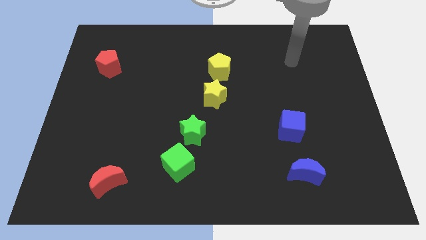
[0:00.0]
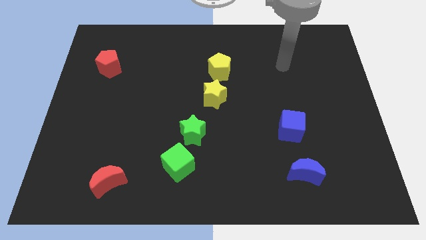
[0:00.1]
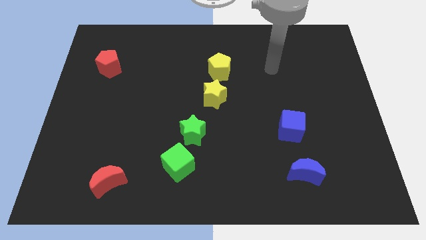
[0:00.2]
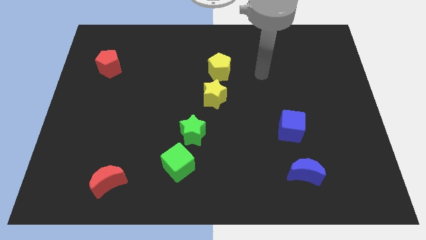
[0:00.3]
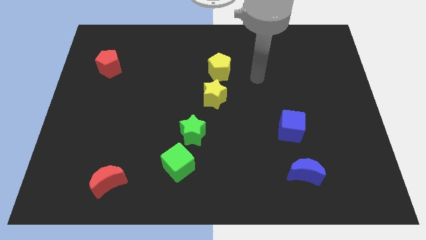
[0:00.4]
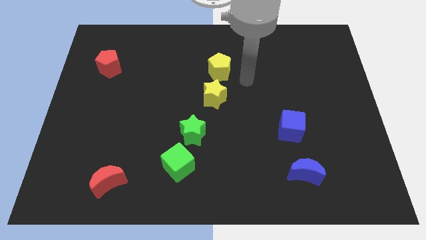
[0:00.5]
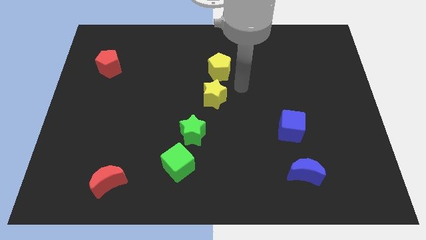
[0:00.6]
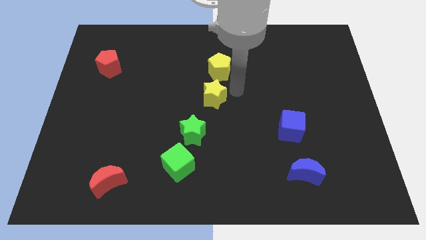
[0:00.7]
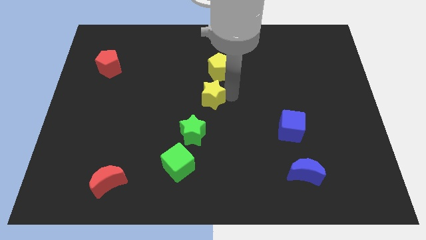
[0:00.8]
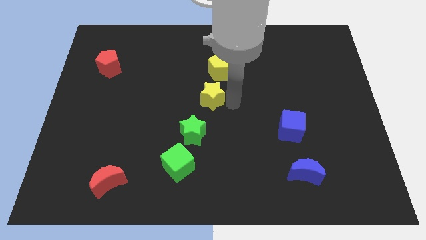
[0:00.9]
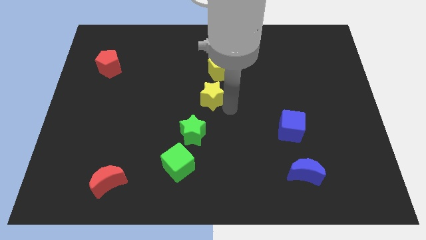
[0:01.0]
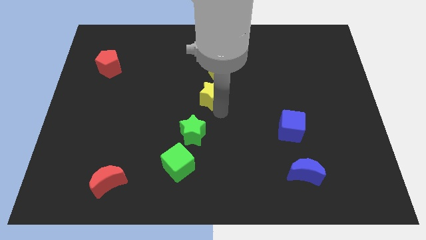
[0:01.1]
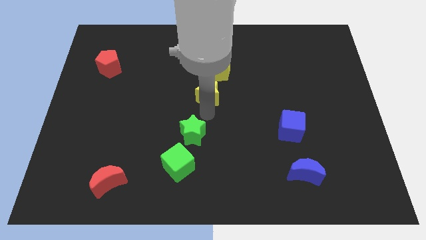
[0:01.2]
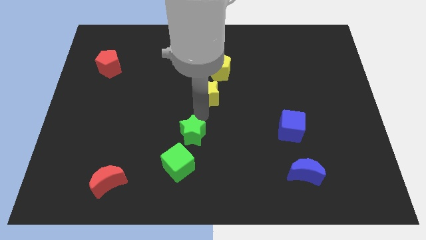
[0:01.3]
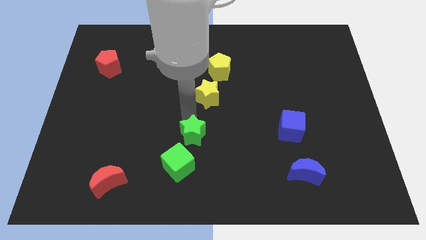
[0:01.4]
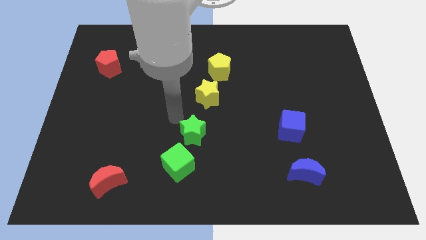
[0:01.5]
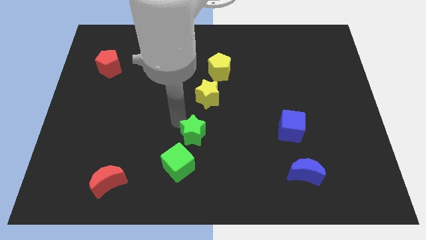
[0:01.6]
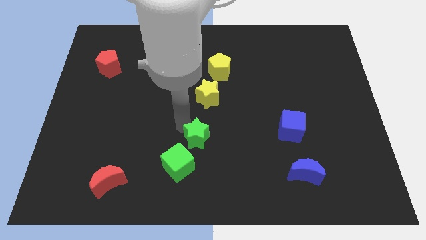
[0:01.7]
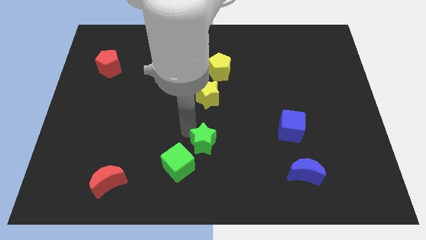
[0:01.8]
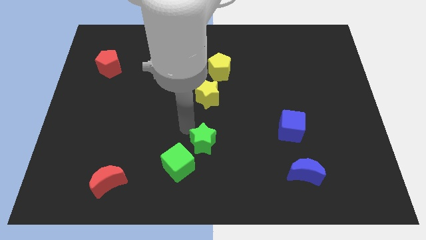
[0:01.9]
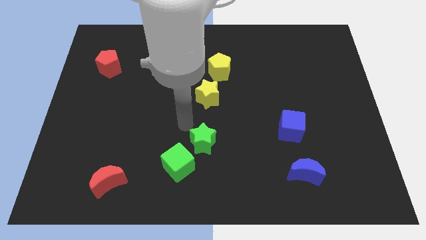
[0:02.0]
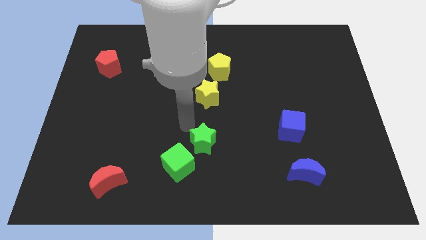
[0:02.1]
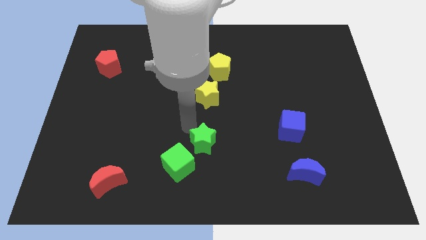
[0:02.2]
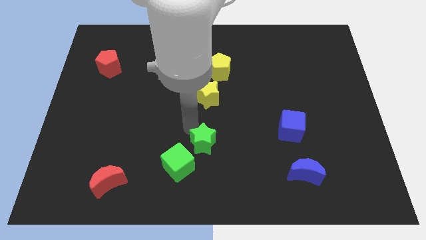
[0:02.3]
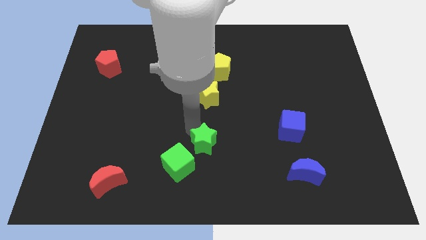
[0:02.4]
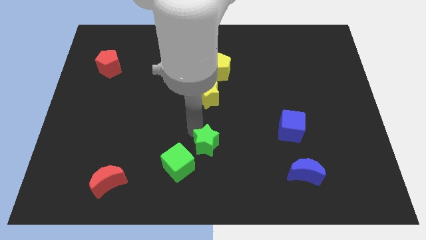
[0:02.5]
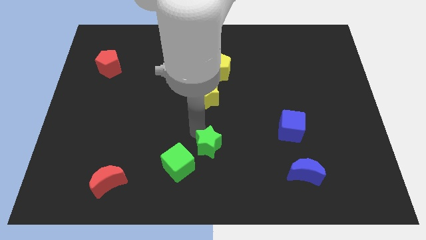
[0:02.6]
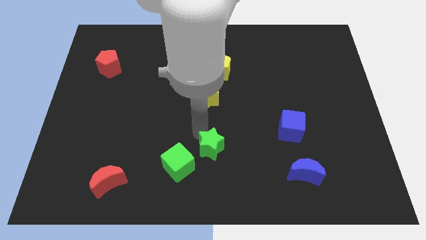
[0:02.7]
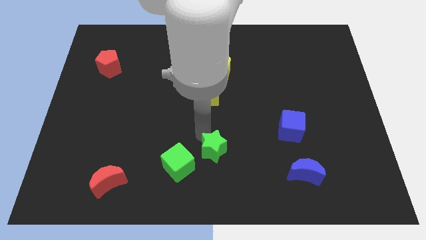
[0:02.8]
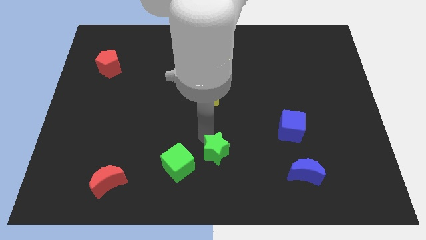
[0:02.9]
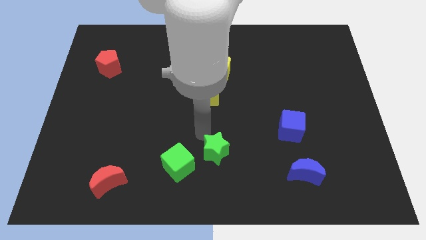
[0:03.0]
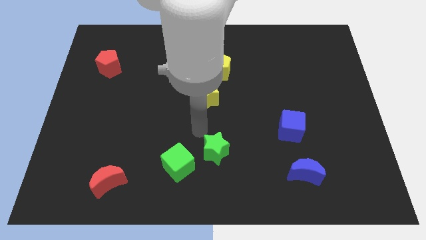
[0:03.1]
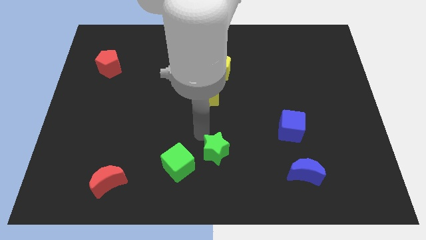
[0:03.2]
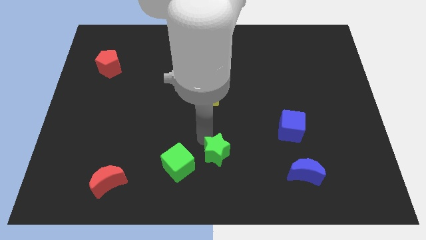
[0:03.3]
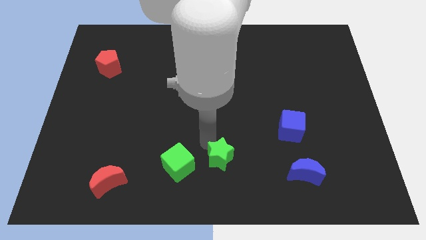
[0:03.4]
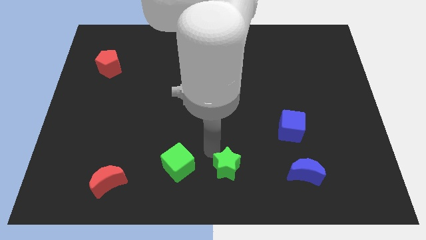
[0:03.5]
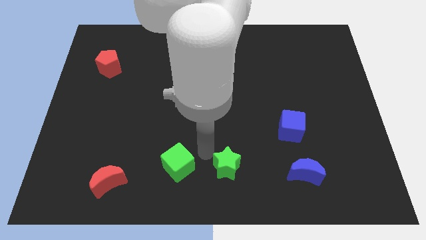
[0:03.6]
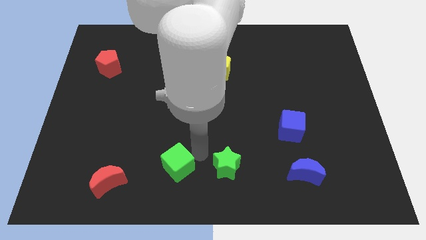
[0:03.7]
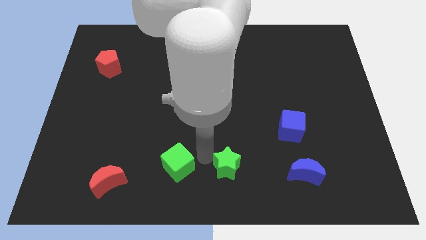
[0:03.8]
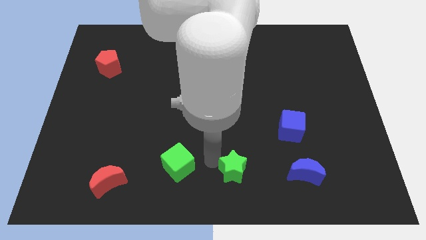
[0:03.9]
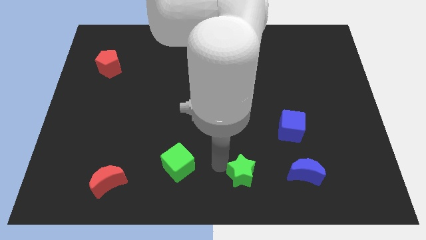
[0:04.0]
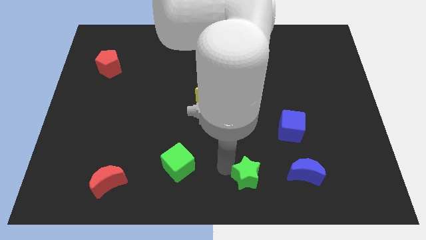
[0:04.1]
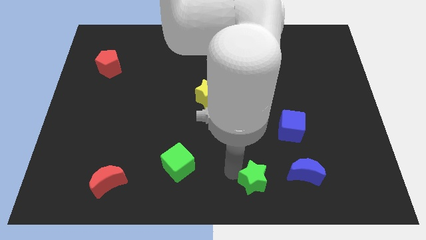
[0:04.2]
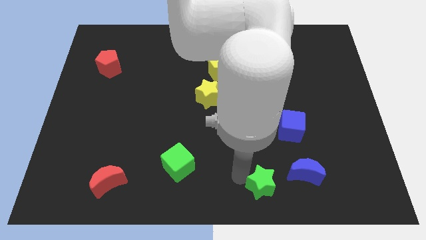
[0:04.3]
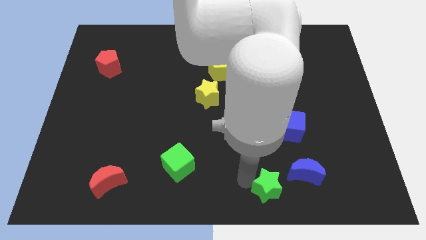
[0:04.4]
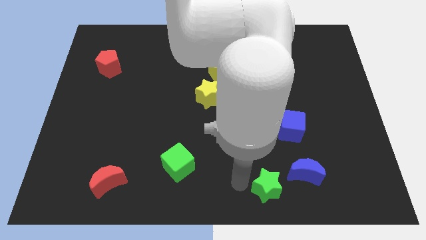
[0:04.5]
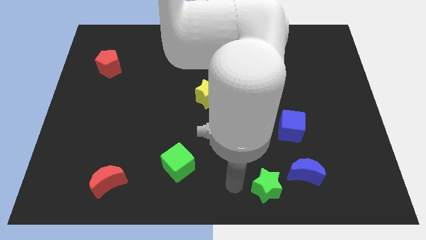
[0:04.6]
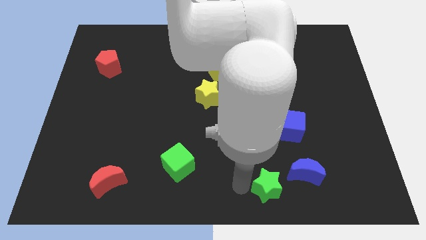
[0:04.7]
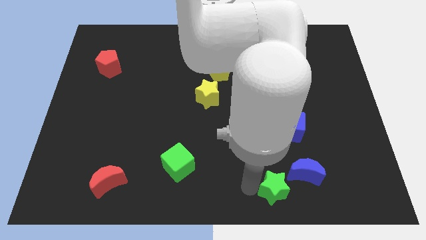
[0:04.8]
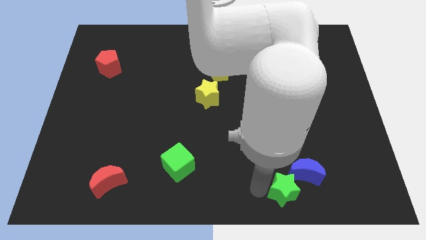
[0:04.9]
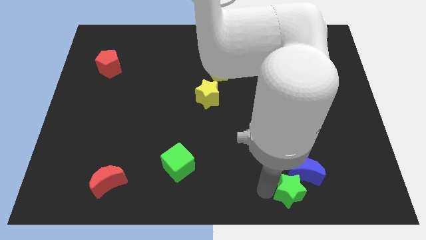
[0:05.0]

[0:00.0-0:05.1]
put the green star to the bottom of the blue cube

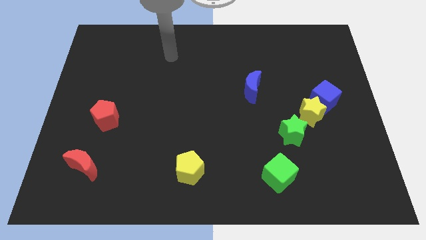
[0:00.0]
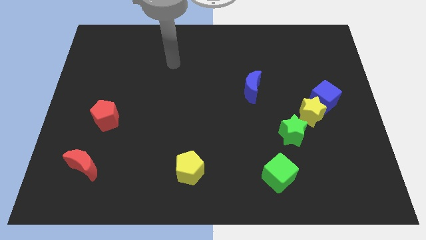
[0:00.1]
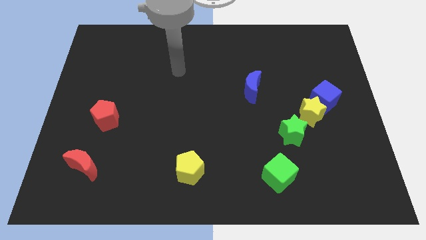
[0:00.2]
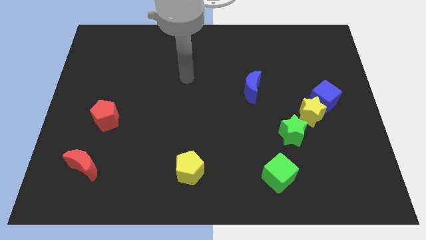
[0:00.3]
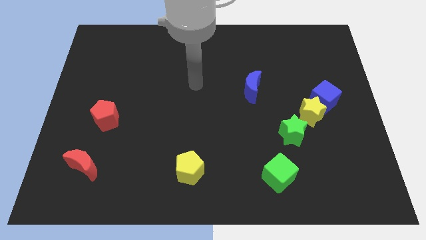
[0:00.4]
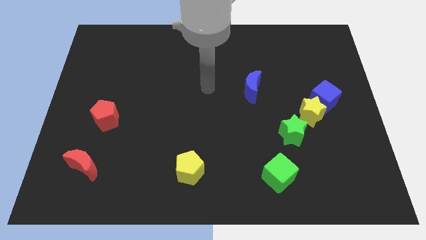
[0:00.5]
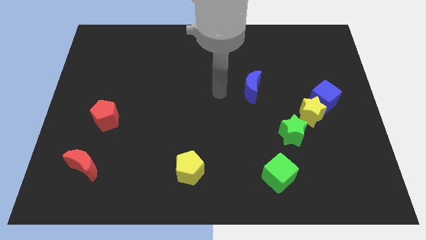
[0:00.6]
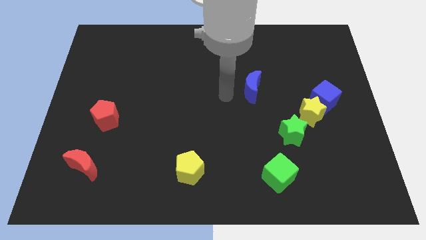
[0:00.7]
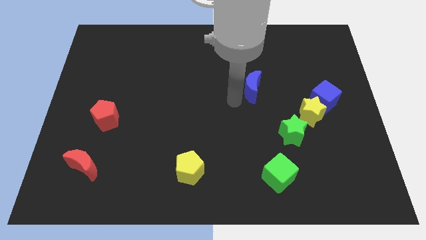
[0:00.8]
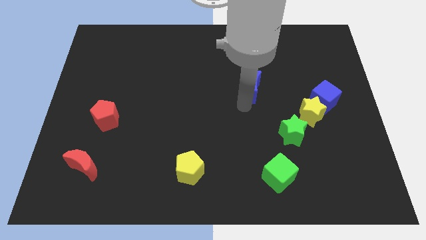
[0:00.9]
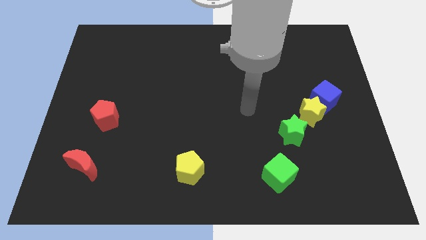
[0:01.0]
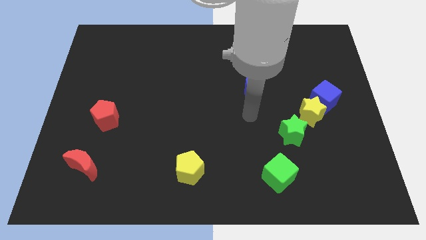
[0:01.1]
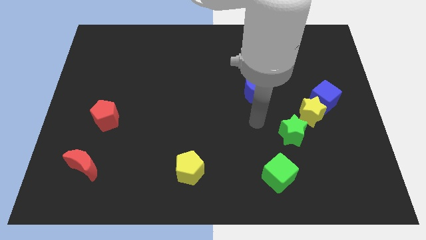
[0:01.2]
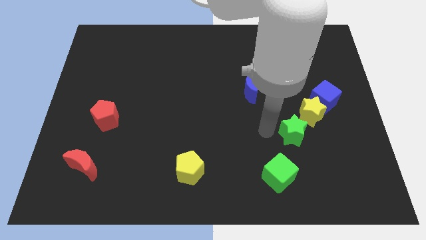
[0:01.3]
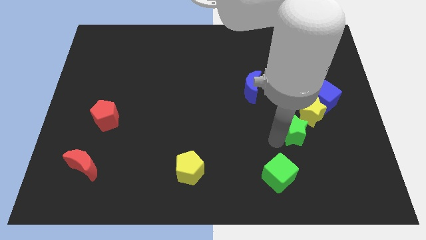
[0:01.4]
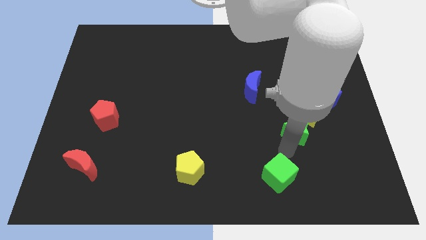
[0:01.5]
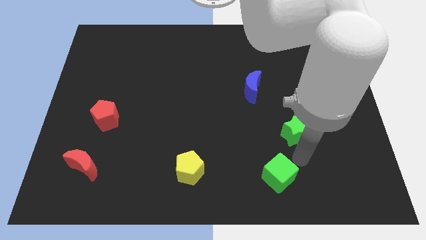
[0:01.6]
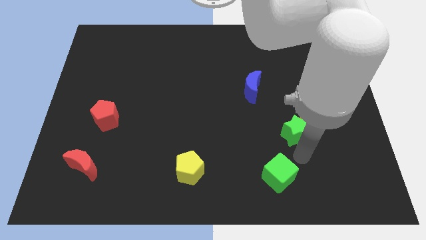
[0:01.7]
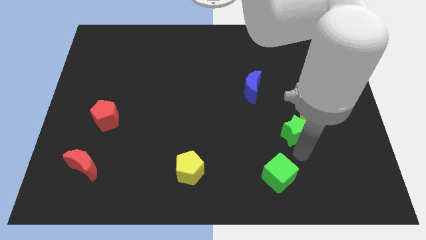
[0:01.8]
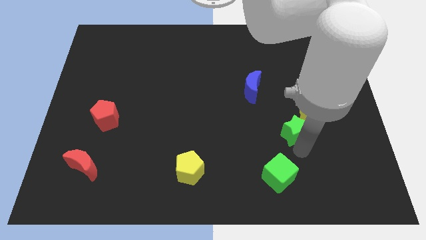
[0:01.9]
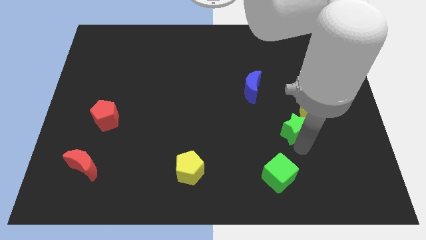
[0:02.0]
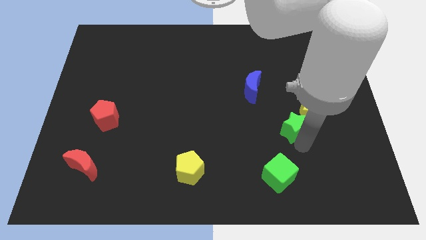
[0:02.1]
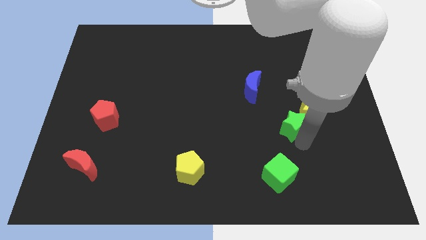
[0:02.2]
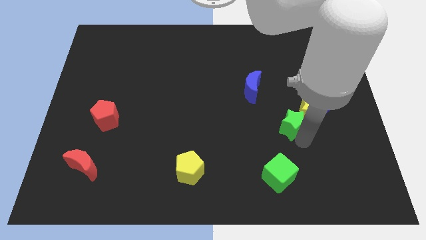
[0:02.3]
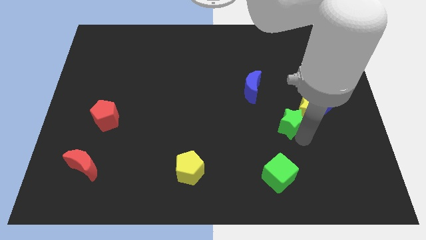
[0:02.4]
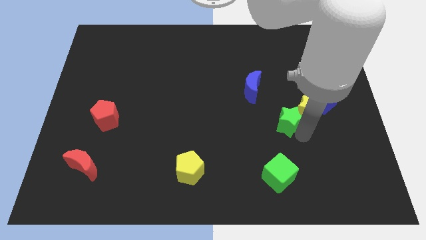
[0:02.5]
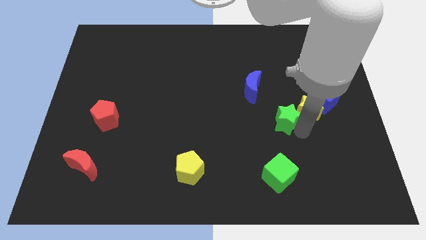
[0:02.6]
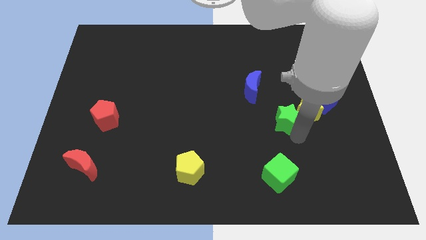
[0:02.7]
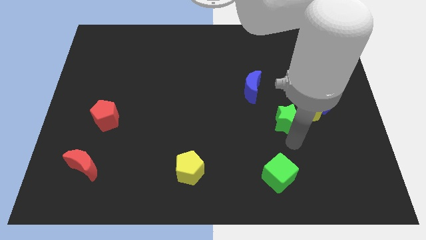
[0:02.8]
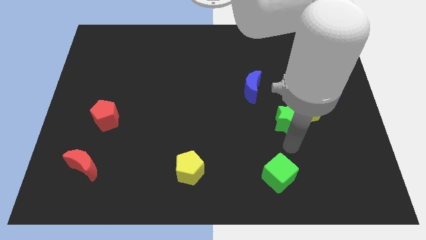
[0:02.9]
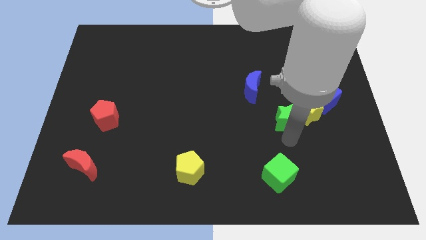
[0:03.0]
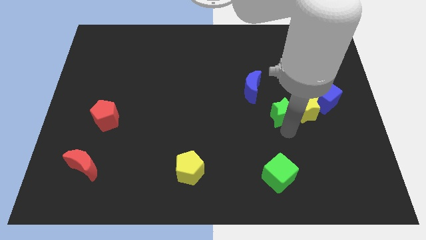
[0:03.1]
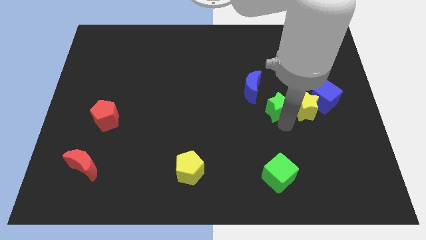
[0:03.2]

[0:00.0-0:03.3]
put the green star to the top left of the yellow star
